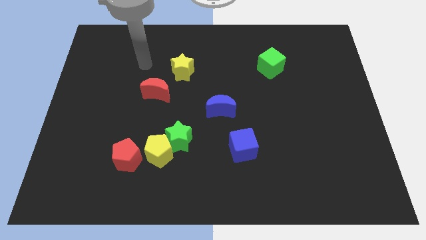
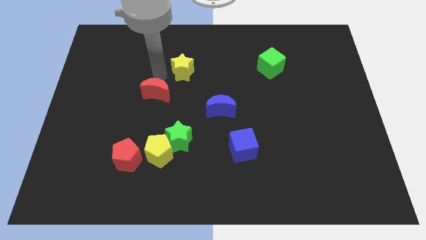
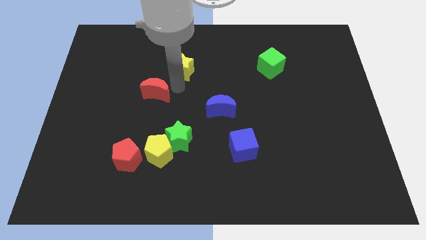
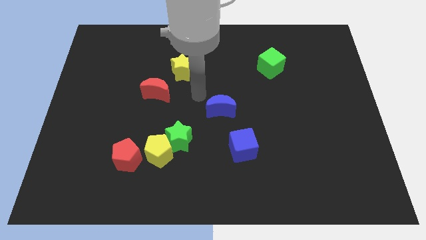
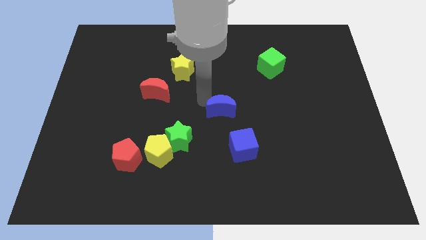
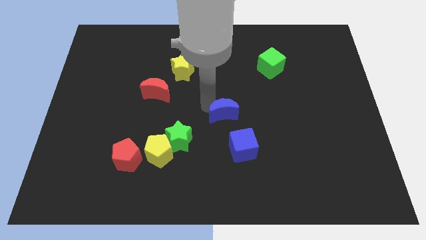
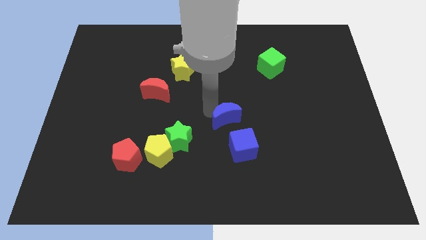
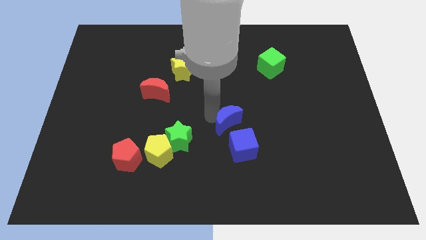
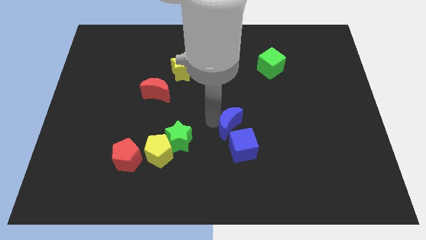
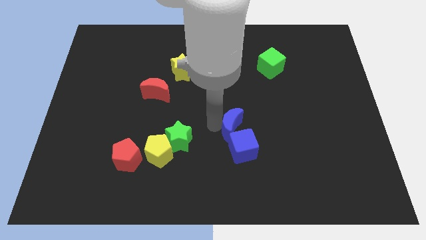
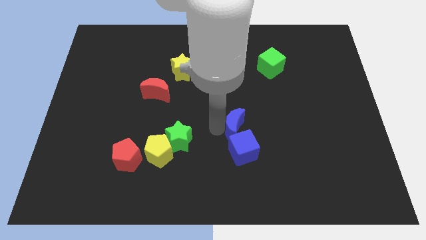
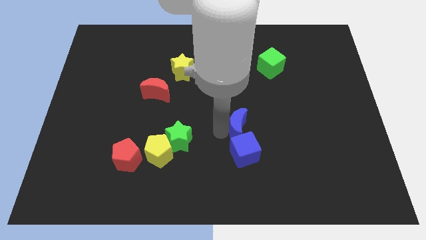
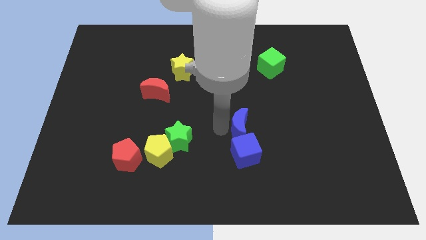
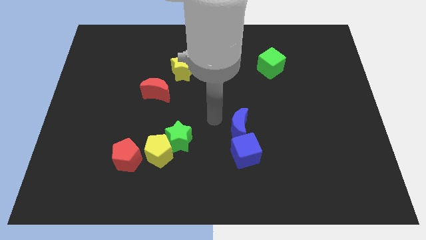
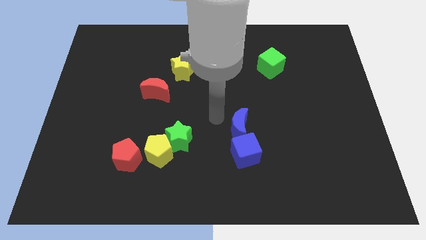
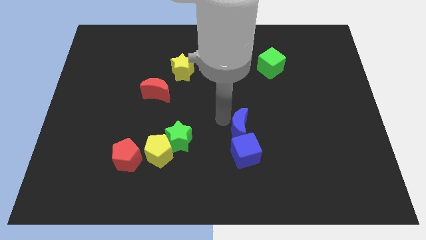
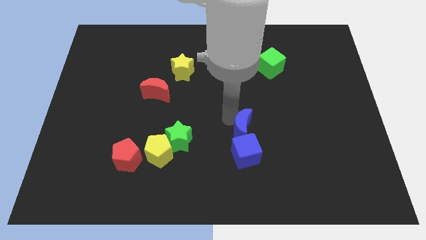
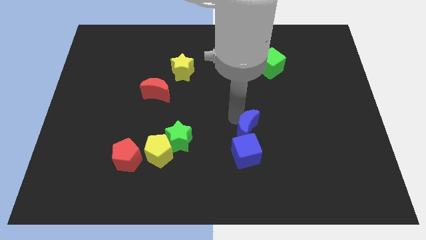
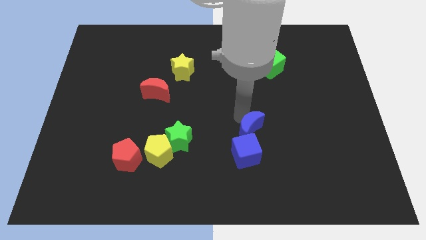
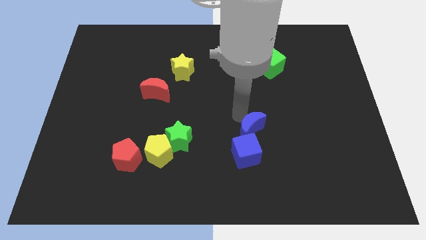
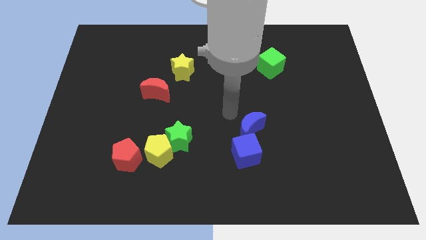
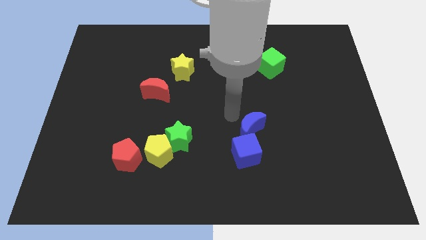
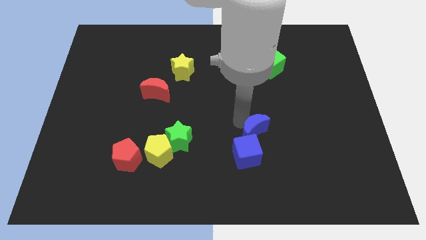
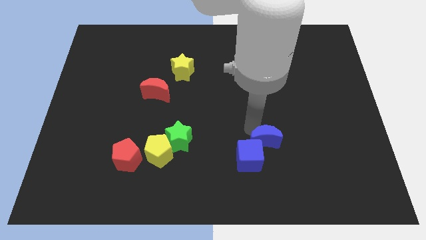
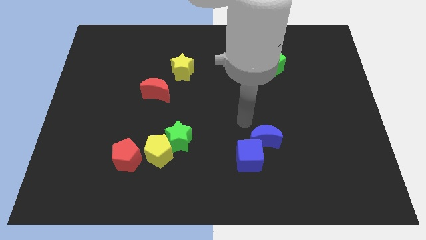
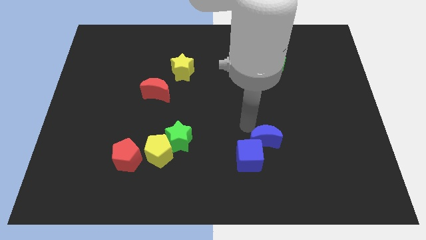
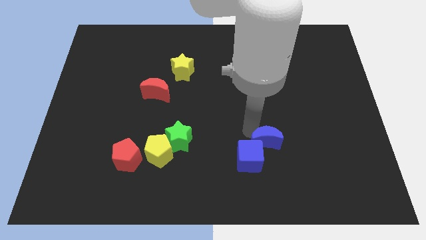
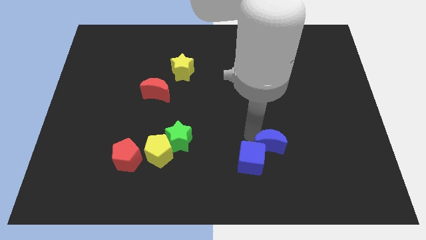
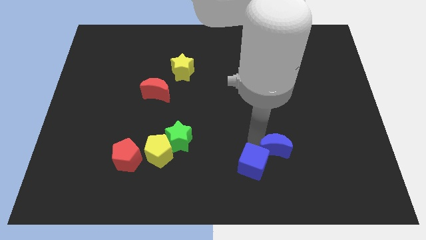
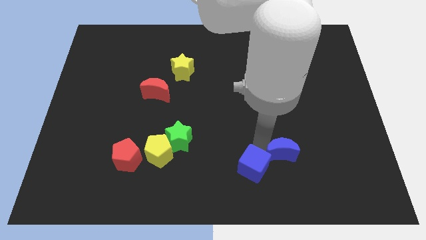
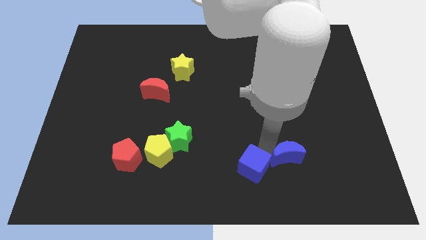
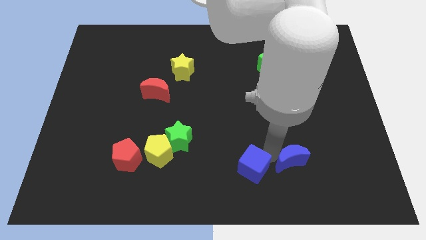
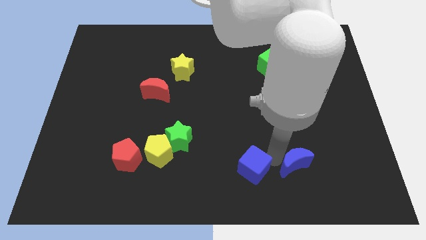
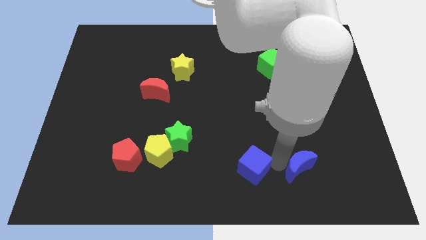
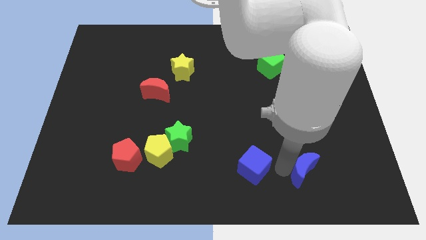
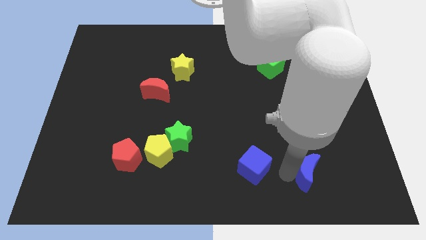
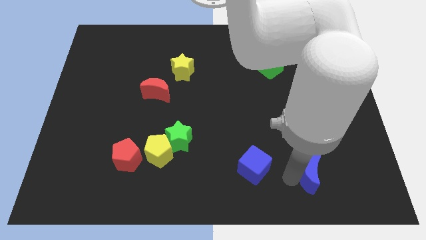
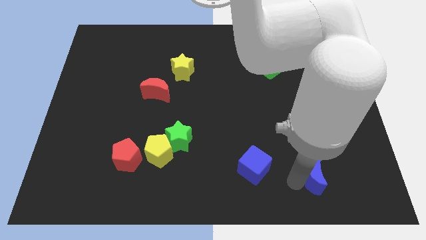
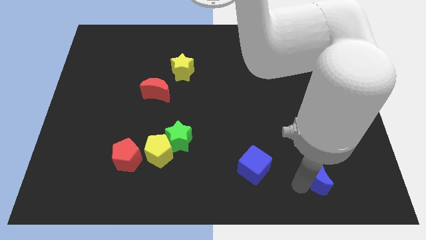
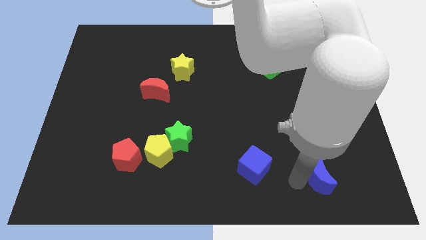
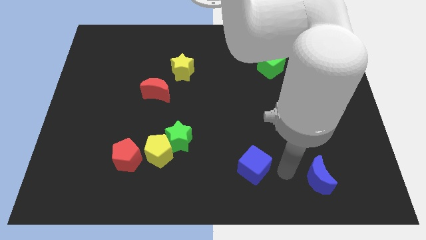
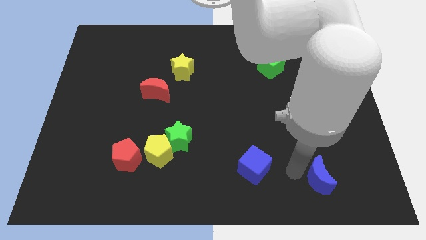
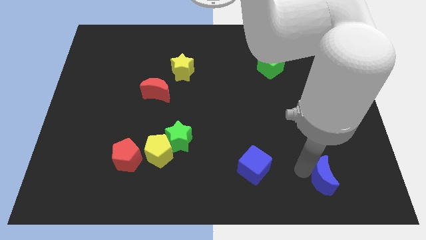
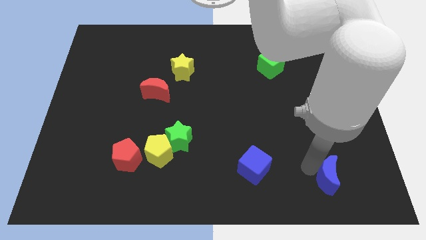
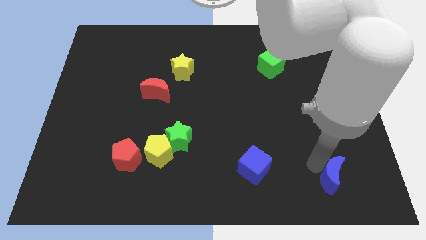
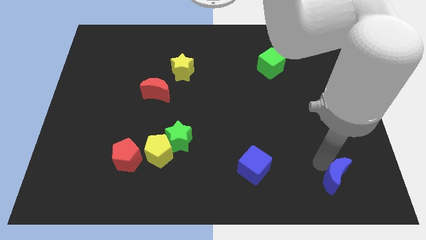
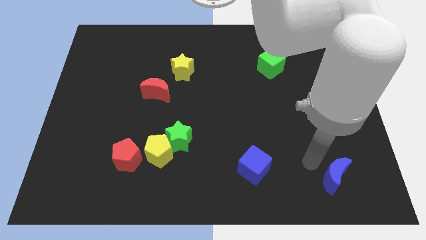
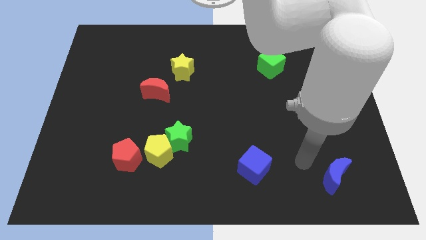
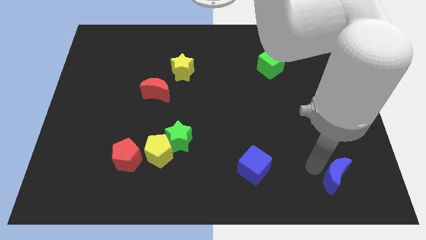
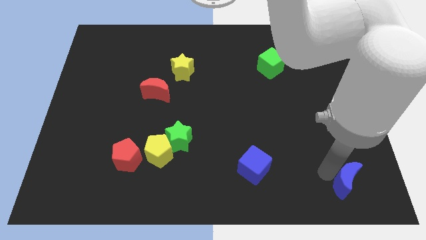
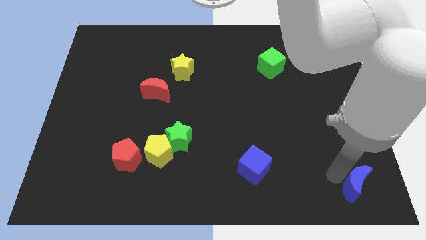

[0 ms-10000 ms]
push the blue moon to the bottom right of the board

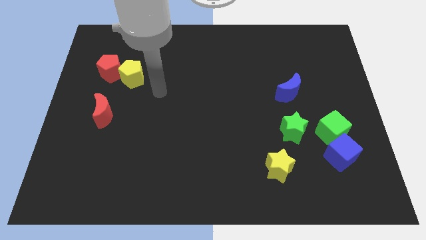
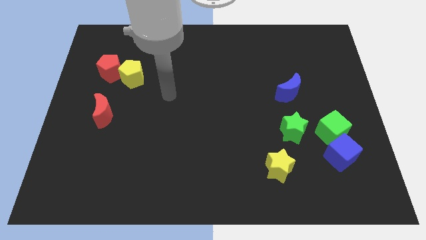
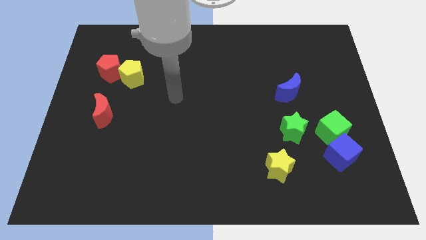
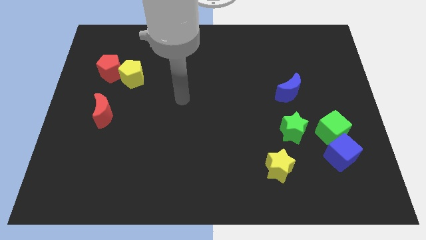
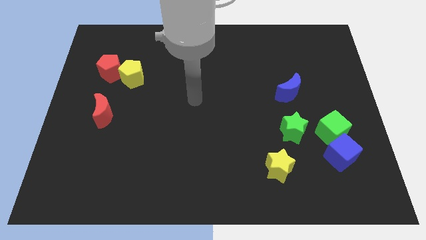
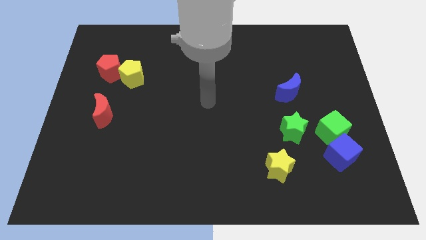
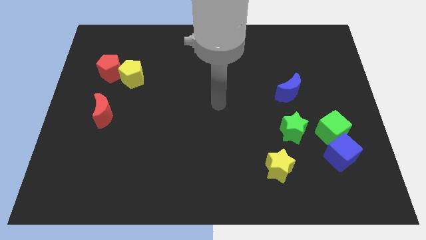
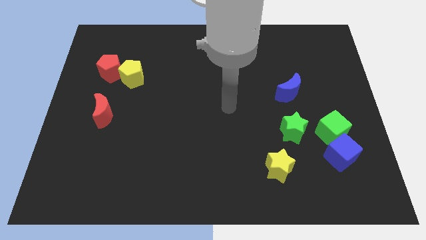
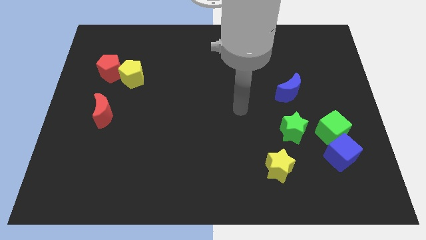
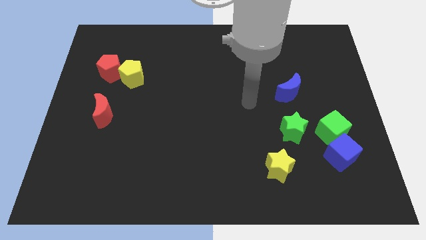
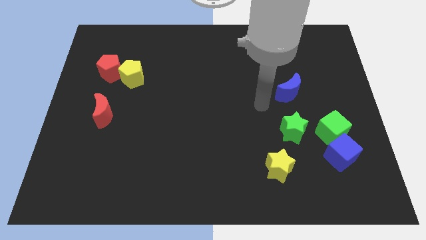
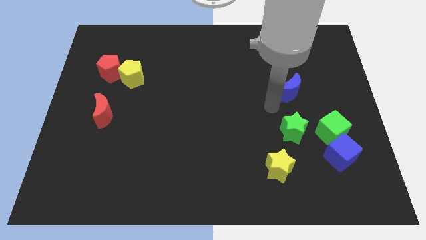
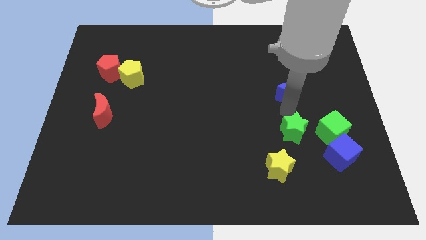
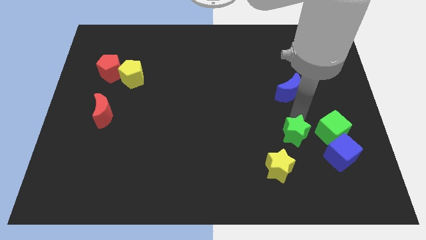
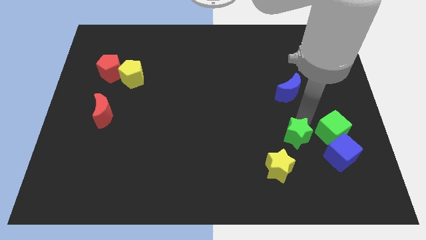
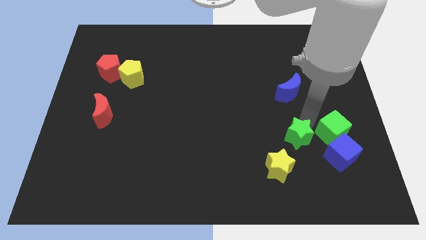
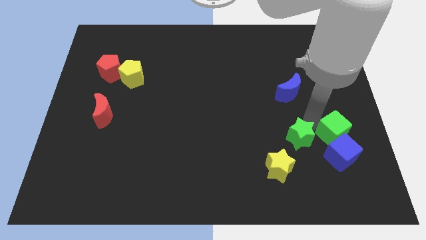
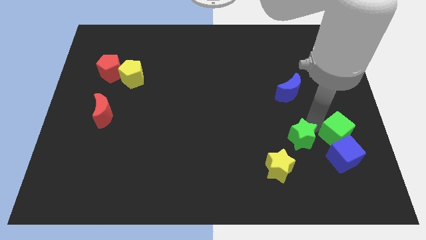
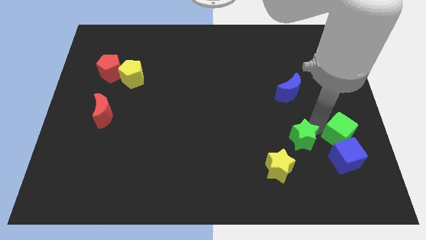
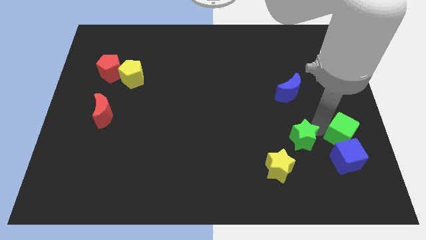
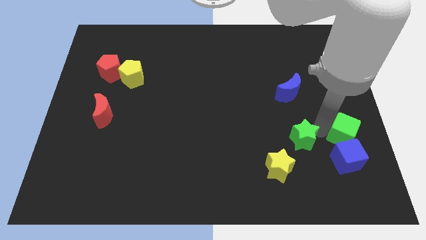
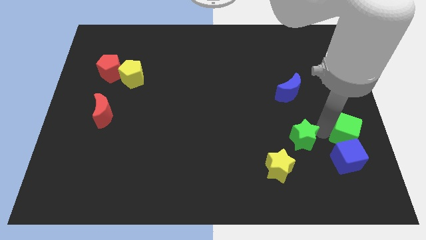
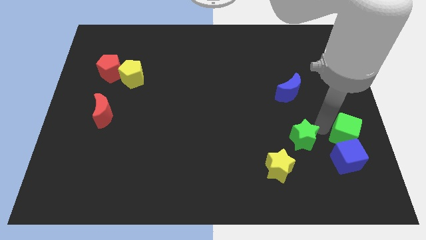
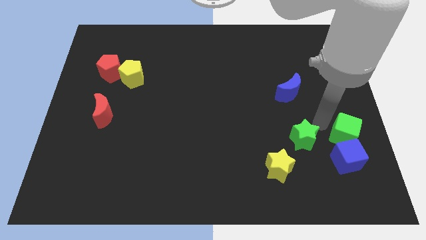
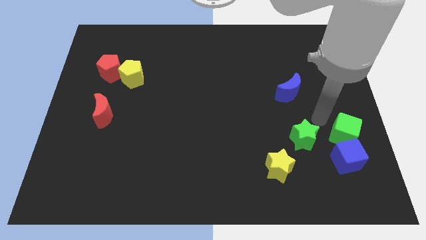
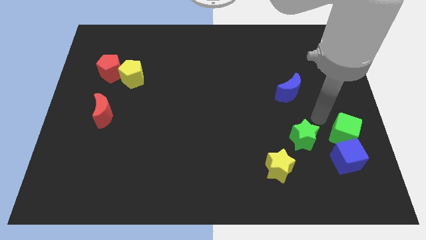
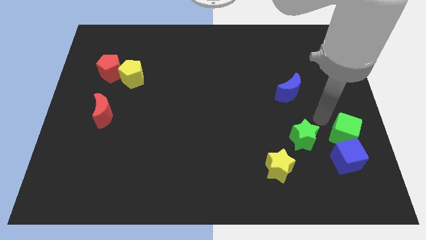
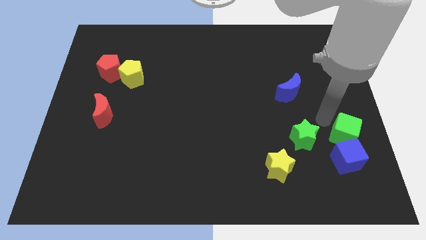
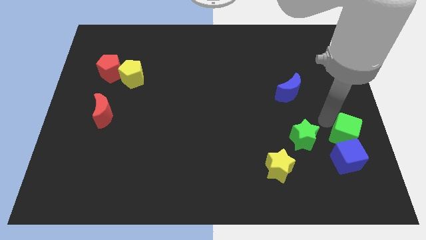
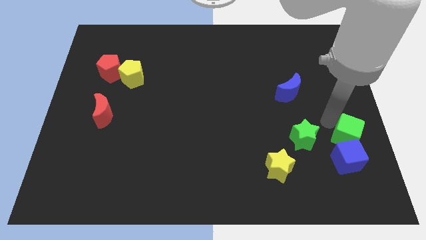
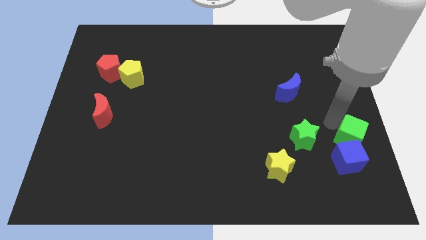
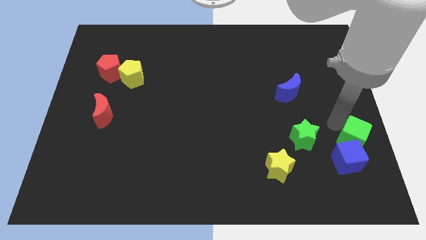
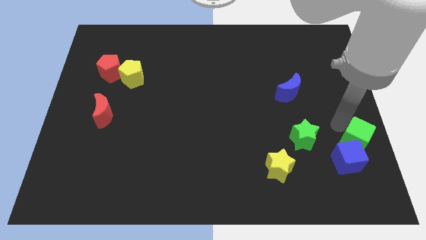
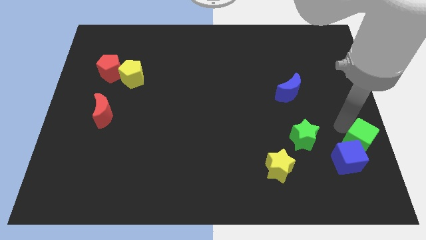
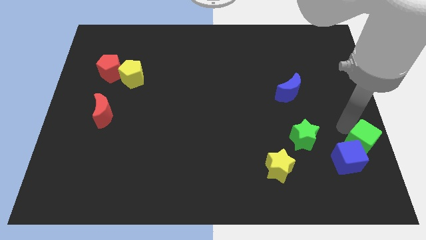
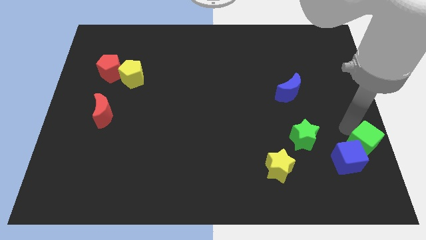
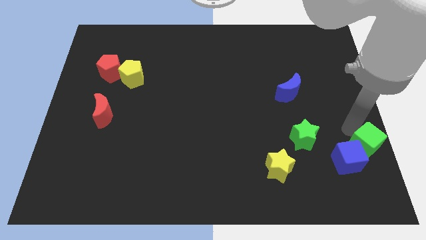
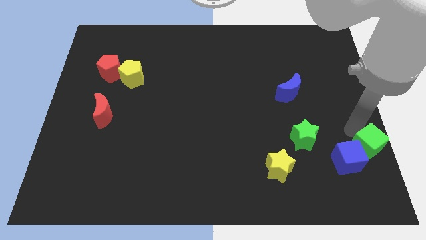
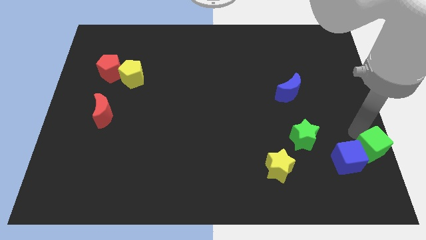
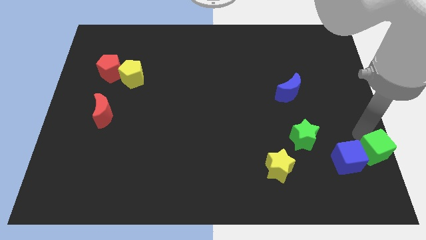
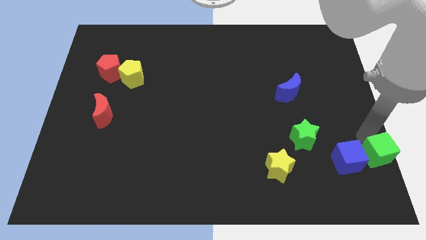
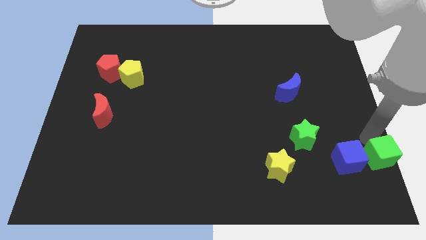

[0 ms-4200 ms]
move the green cube to the bottom right corner
